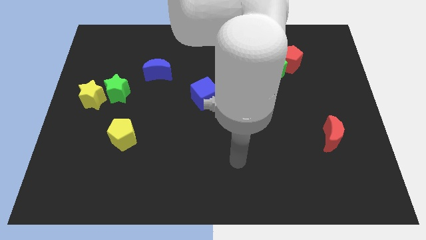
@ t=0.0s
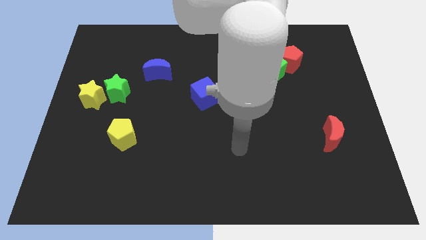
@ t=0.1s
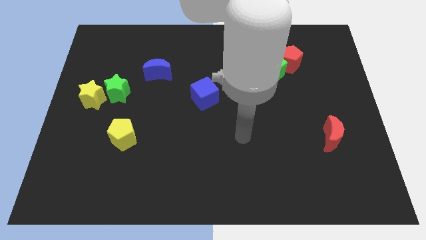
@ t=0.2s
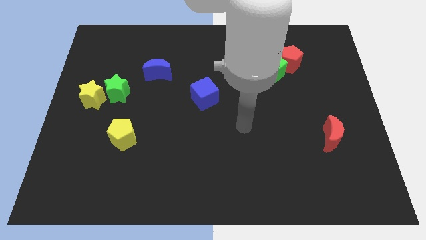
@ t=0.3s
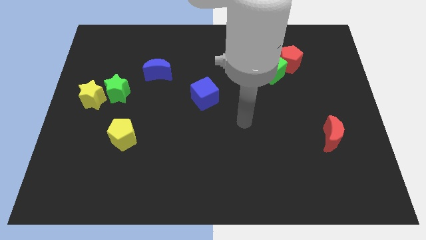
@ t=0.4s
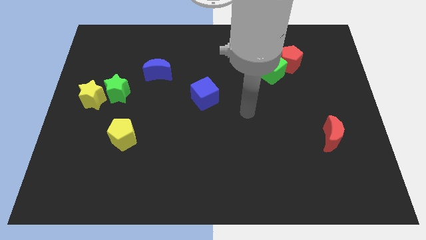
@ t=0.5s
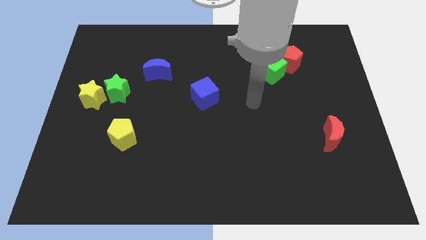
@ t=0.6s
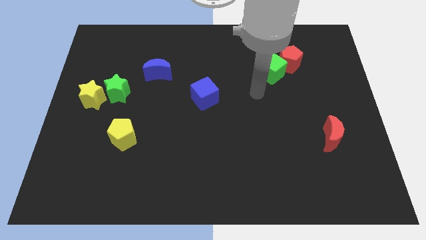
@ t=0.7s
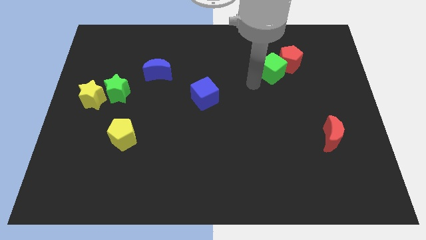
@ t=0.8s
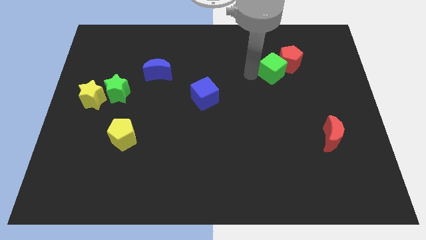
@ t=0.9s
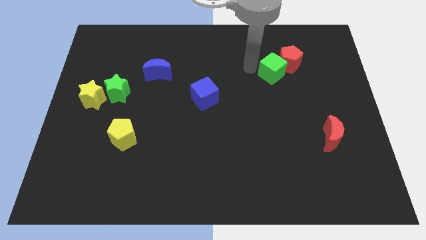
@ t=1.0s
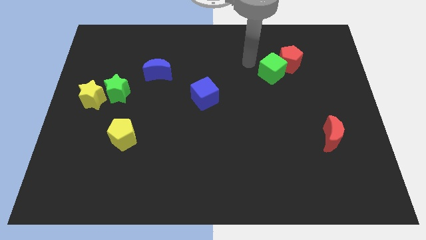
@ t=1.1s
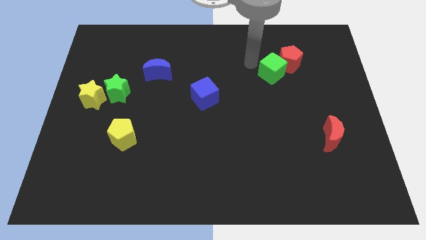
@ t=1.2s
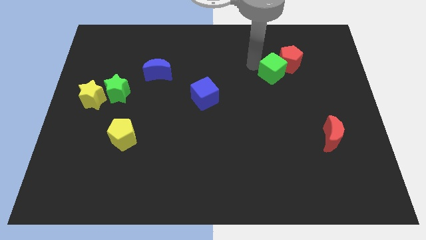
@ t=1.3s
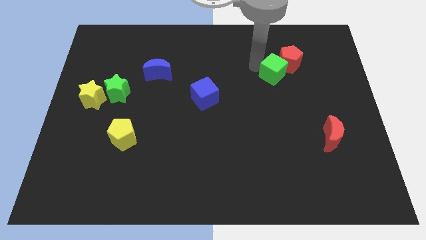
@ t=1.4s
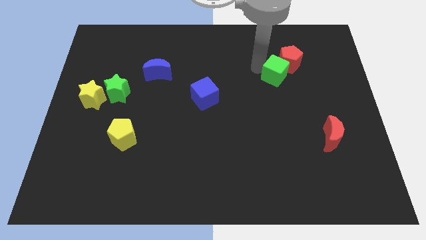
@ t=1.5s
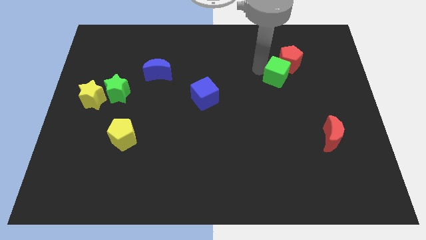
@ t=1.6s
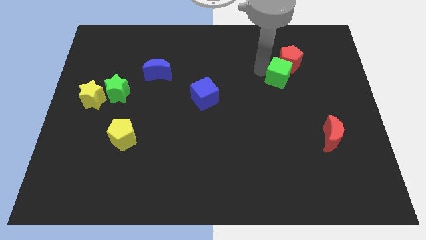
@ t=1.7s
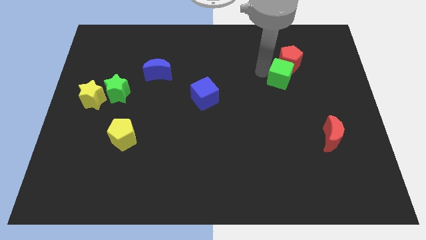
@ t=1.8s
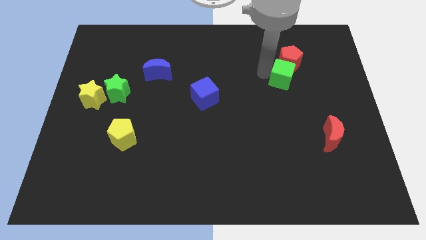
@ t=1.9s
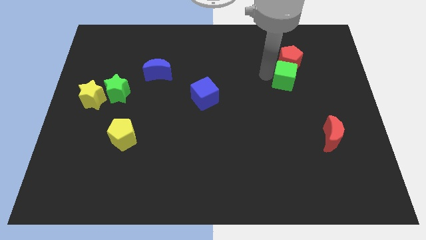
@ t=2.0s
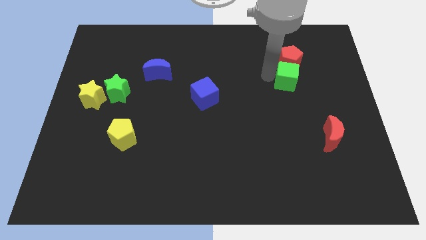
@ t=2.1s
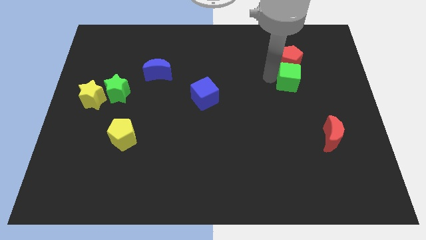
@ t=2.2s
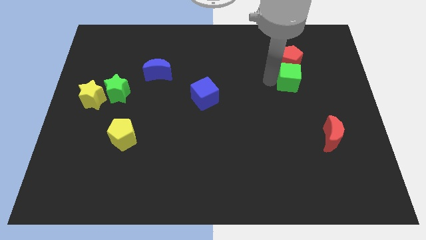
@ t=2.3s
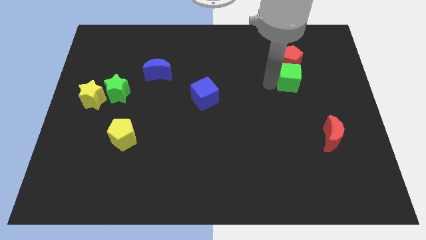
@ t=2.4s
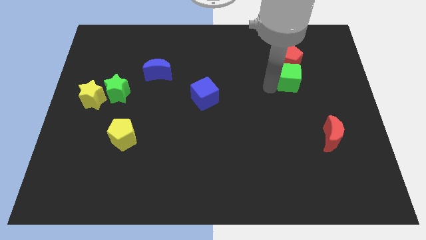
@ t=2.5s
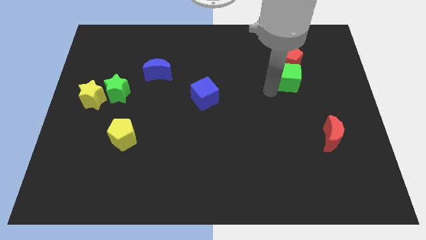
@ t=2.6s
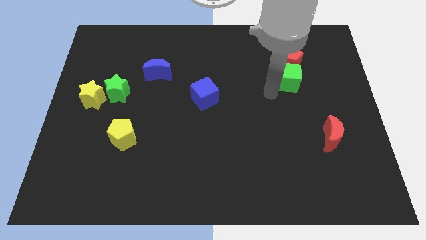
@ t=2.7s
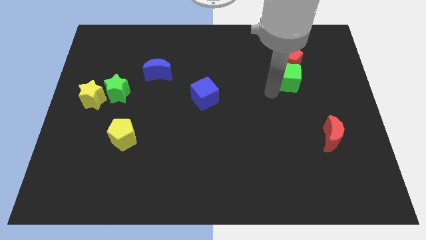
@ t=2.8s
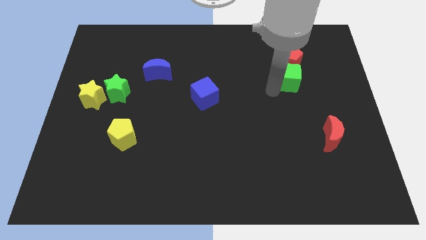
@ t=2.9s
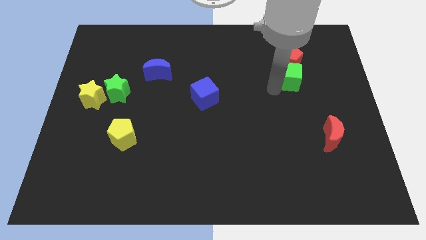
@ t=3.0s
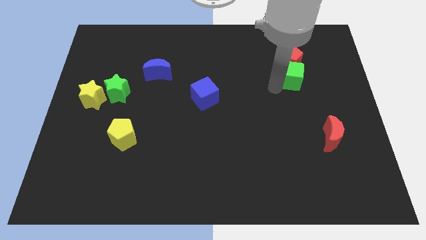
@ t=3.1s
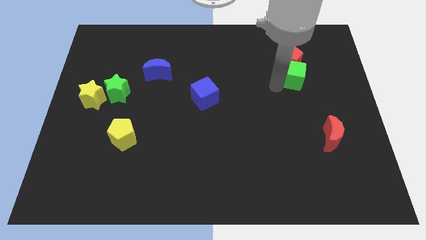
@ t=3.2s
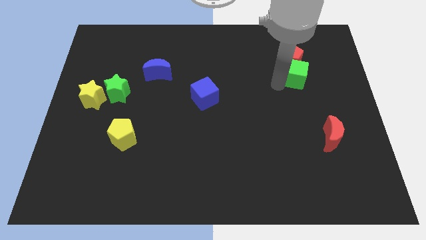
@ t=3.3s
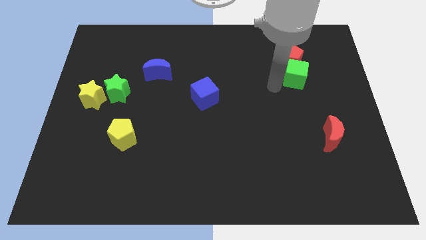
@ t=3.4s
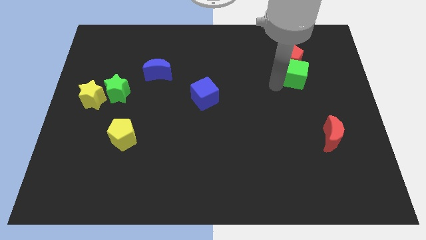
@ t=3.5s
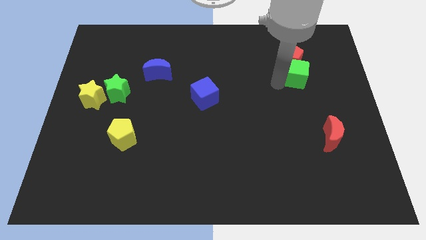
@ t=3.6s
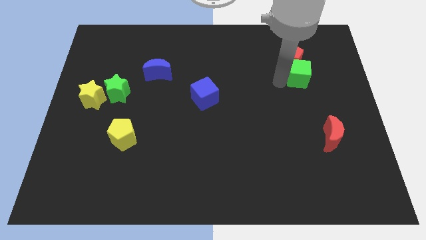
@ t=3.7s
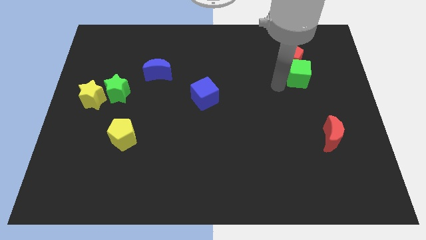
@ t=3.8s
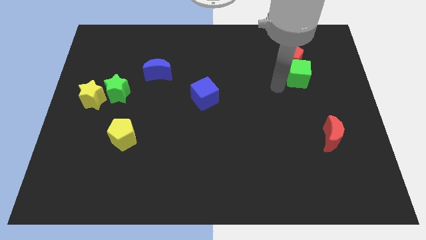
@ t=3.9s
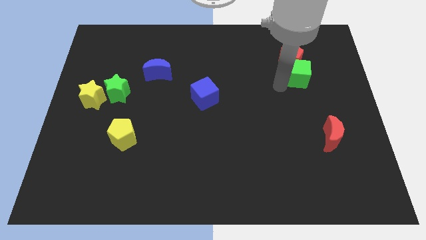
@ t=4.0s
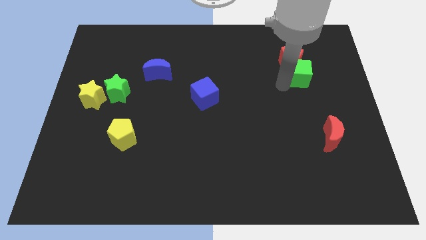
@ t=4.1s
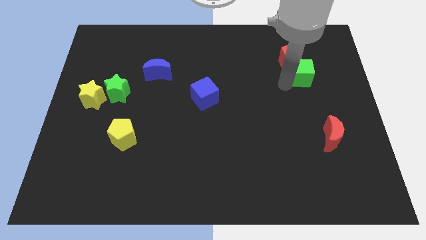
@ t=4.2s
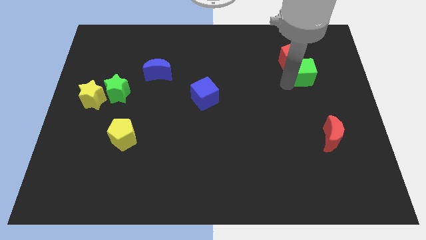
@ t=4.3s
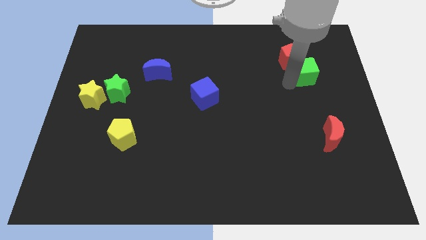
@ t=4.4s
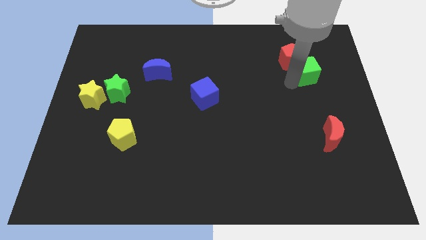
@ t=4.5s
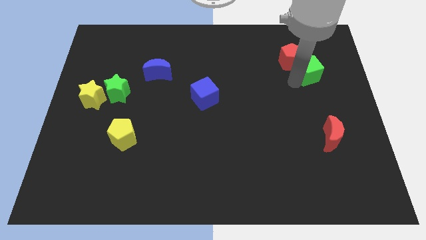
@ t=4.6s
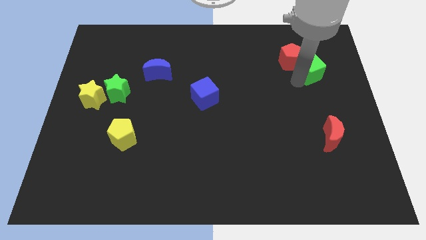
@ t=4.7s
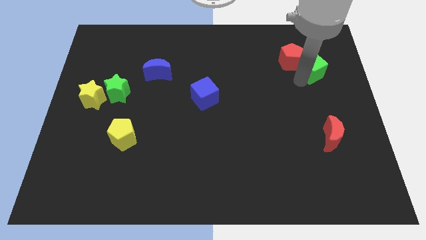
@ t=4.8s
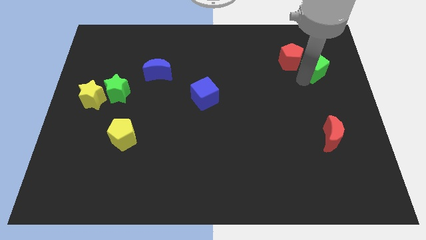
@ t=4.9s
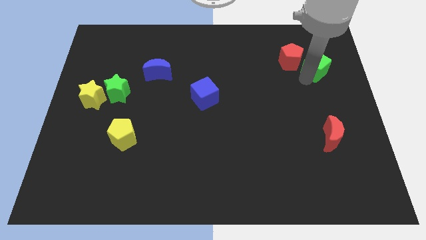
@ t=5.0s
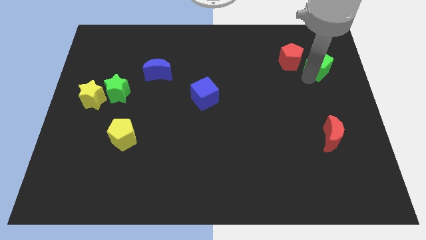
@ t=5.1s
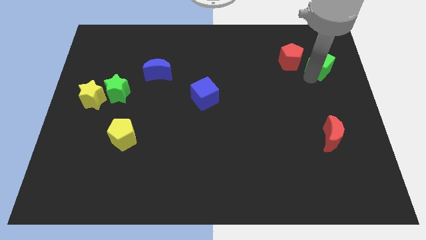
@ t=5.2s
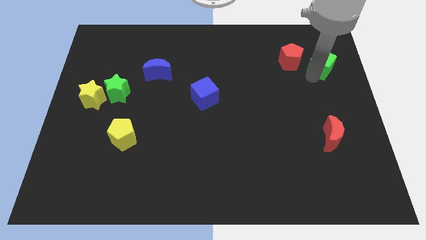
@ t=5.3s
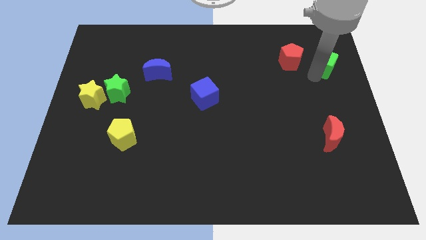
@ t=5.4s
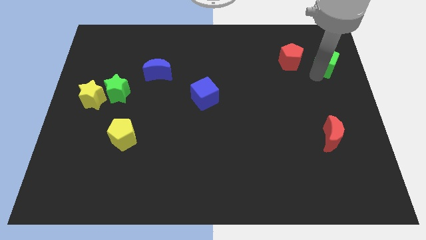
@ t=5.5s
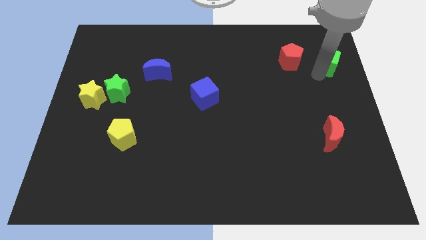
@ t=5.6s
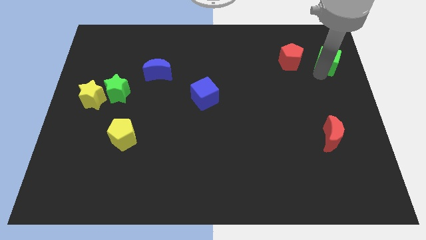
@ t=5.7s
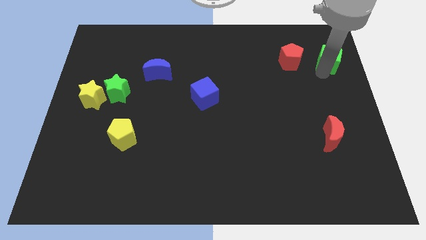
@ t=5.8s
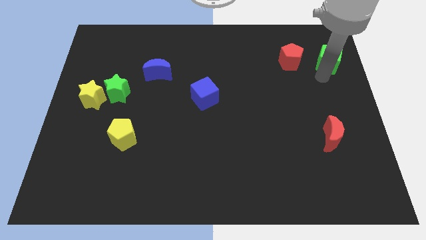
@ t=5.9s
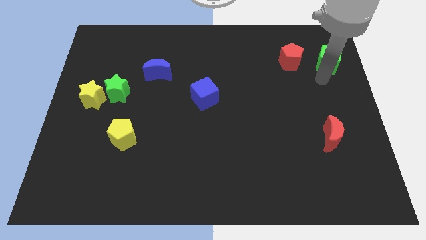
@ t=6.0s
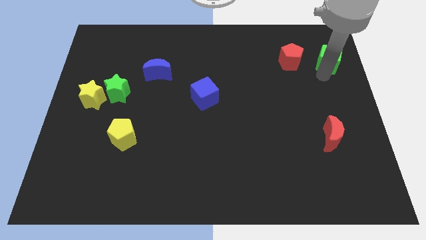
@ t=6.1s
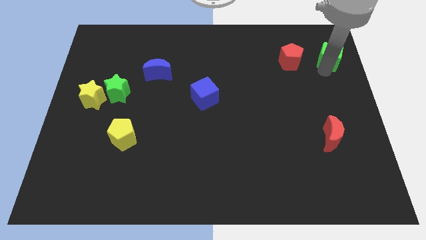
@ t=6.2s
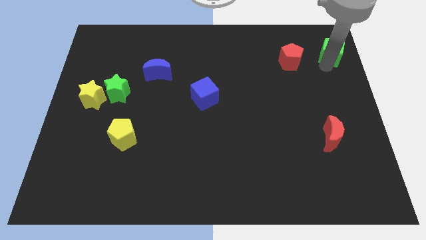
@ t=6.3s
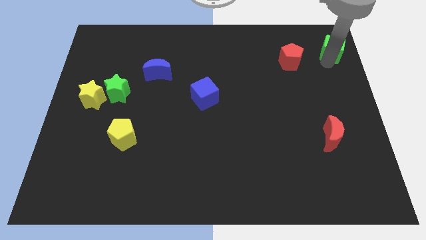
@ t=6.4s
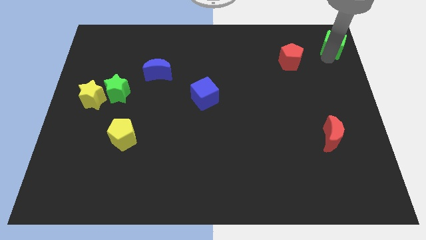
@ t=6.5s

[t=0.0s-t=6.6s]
slide the green cube to the top right corner
